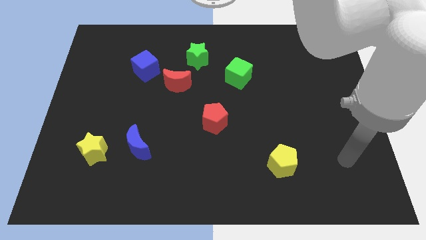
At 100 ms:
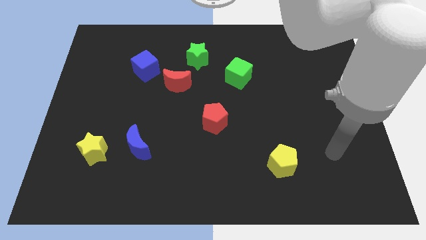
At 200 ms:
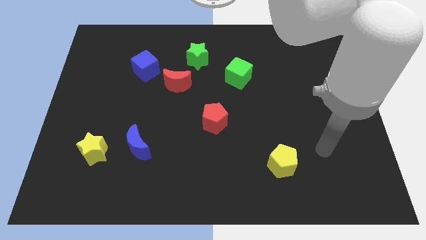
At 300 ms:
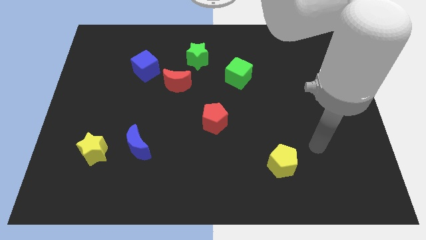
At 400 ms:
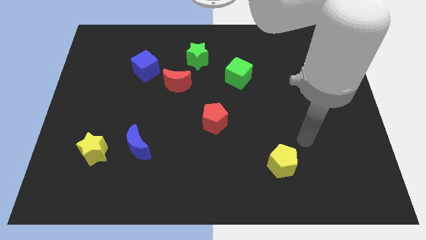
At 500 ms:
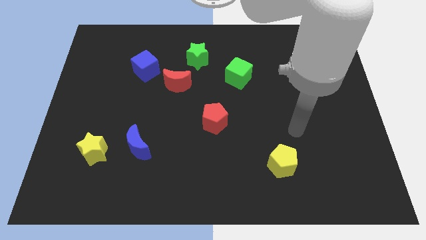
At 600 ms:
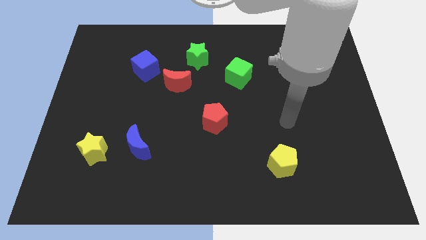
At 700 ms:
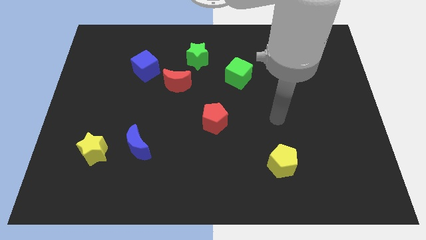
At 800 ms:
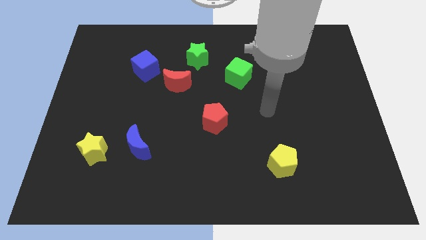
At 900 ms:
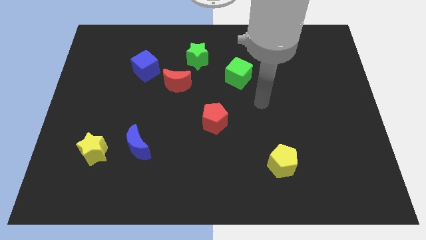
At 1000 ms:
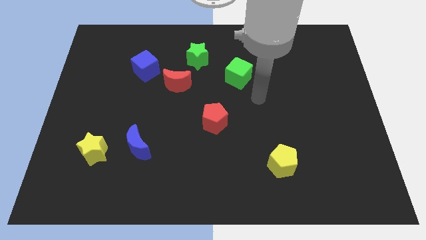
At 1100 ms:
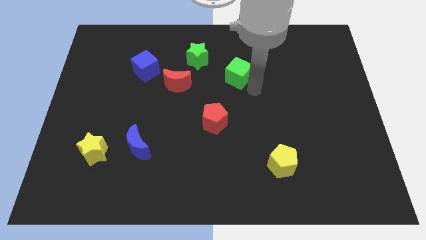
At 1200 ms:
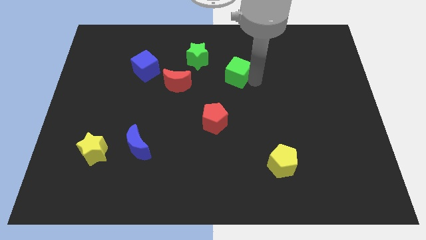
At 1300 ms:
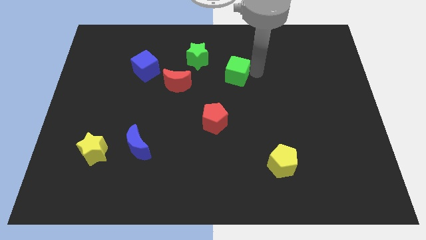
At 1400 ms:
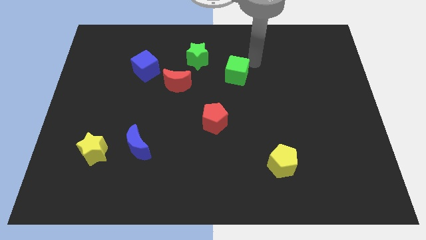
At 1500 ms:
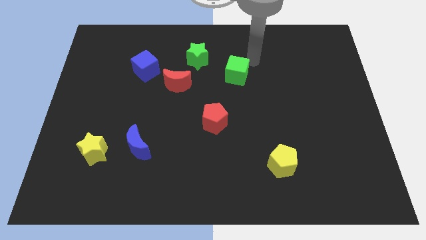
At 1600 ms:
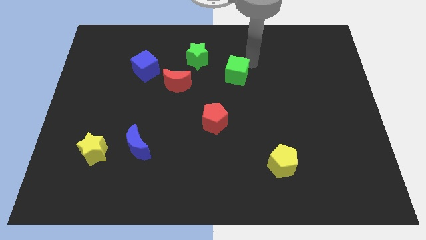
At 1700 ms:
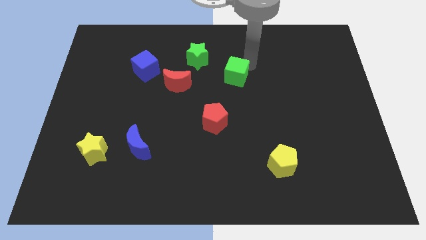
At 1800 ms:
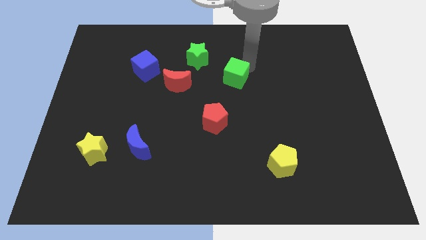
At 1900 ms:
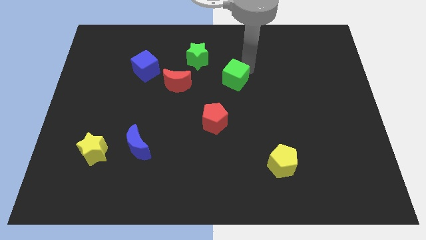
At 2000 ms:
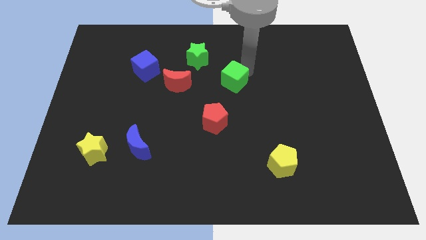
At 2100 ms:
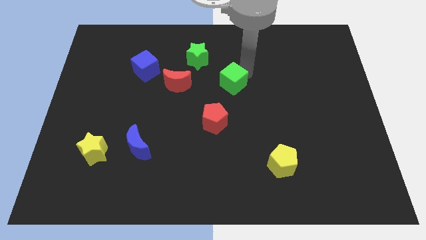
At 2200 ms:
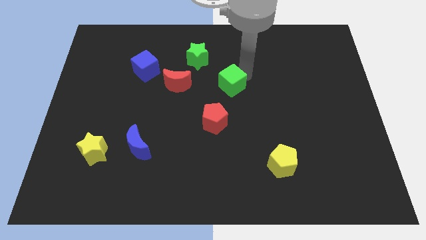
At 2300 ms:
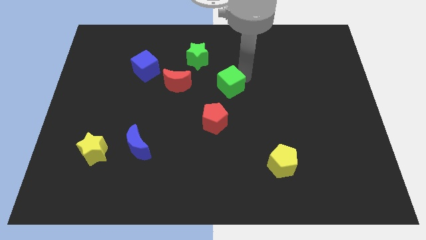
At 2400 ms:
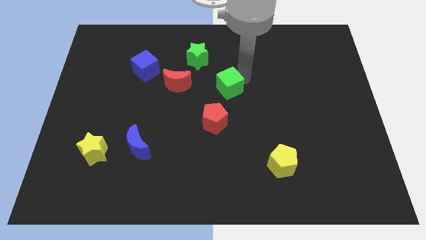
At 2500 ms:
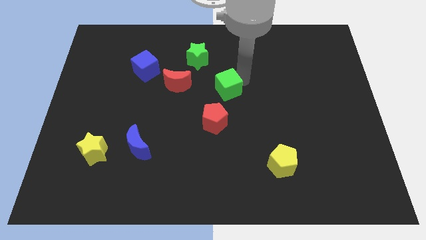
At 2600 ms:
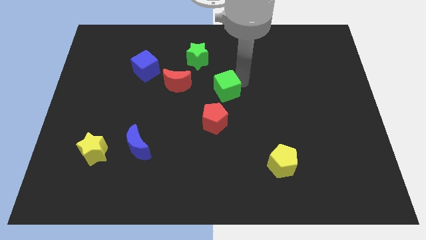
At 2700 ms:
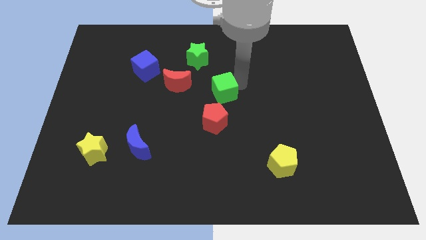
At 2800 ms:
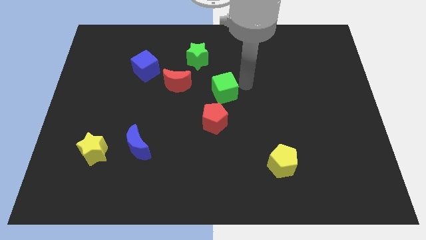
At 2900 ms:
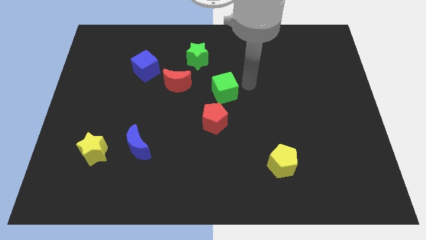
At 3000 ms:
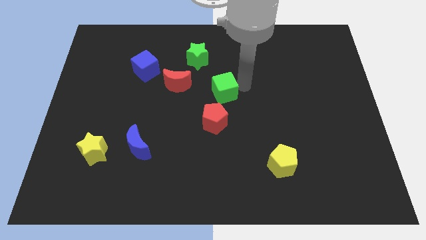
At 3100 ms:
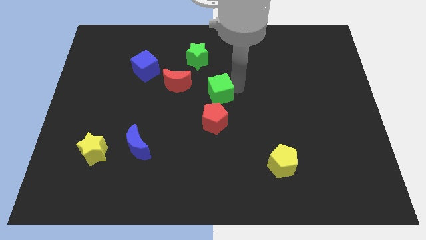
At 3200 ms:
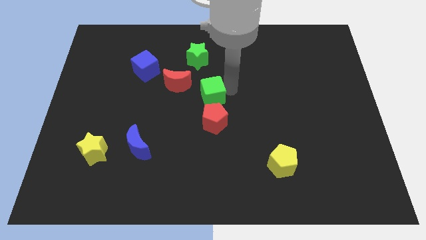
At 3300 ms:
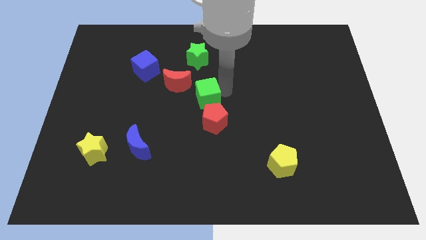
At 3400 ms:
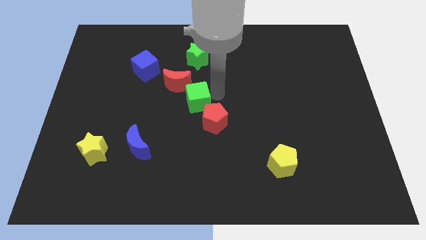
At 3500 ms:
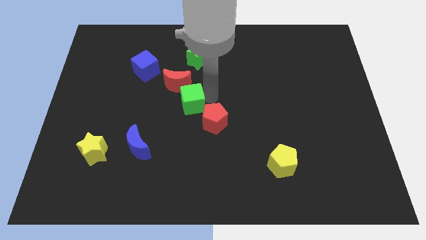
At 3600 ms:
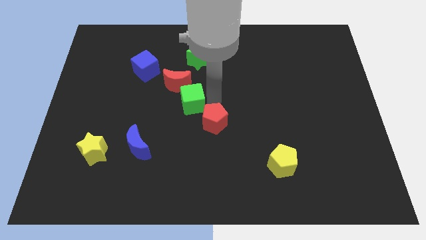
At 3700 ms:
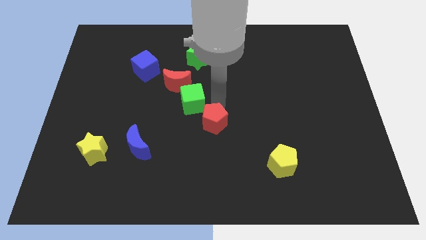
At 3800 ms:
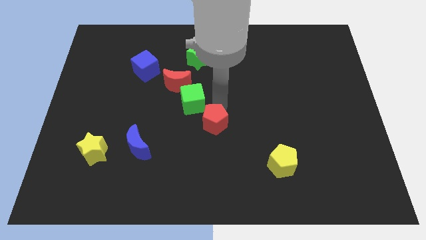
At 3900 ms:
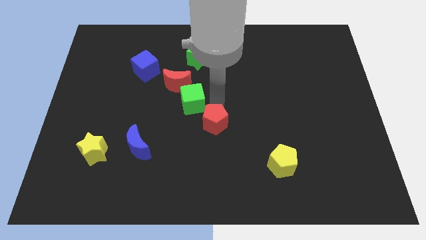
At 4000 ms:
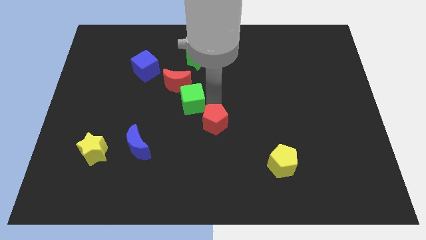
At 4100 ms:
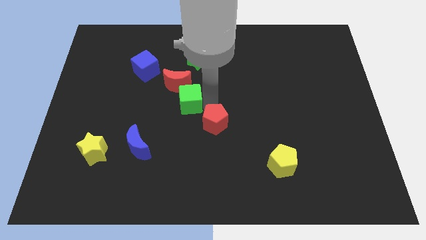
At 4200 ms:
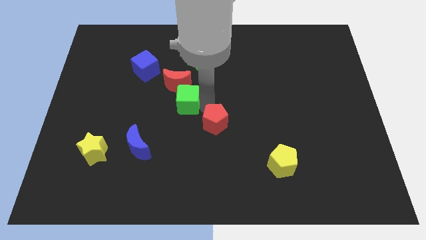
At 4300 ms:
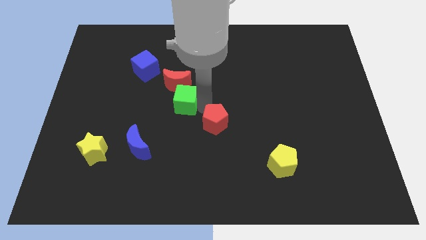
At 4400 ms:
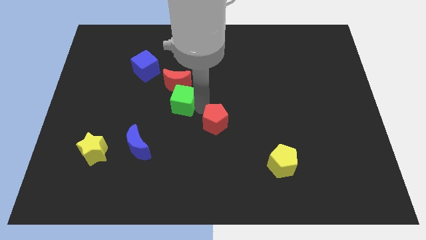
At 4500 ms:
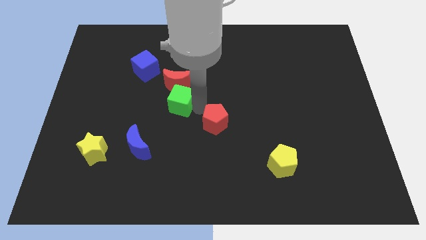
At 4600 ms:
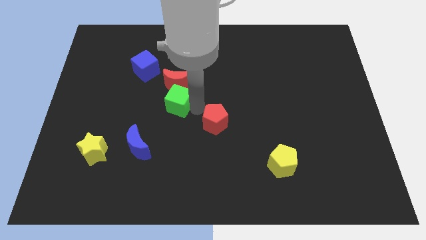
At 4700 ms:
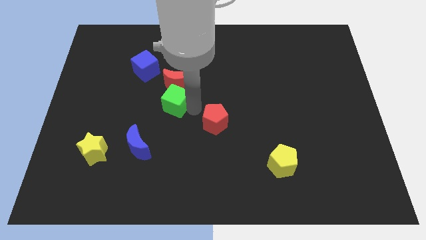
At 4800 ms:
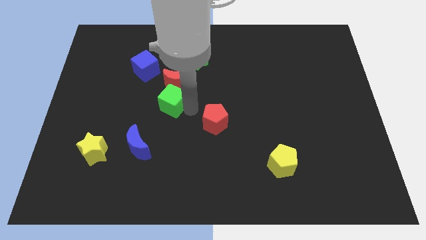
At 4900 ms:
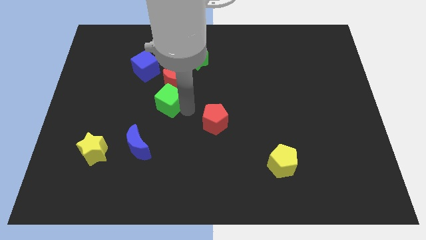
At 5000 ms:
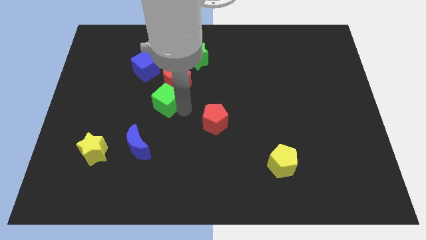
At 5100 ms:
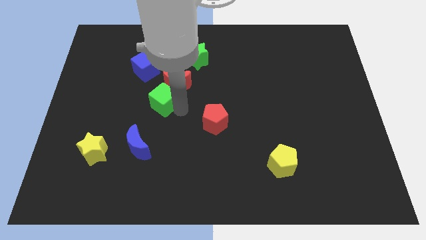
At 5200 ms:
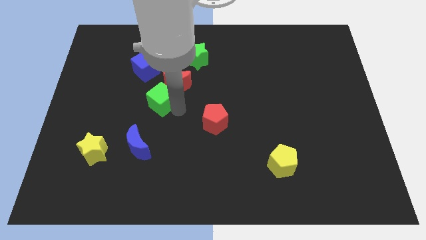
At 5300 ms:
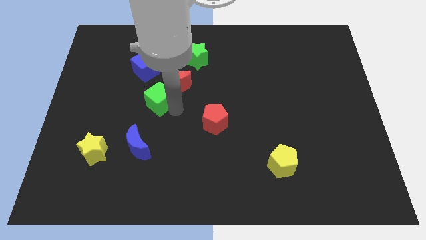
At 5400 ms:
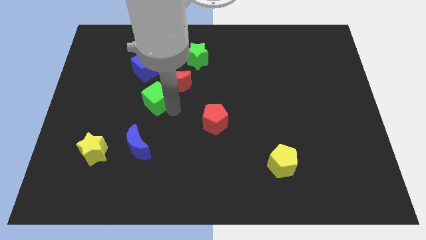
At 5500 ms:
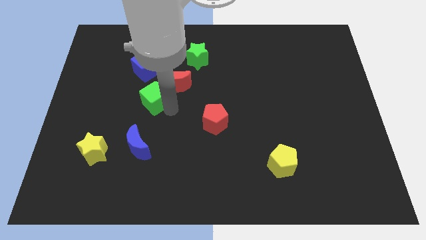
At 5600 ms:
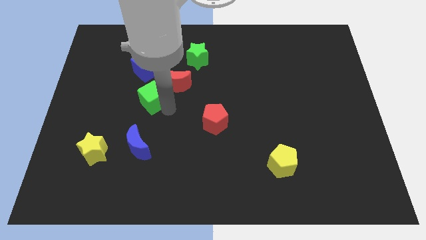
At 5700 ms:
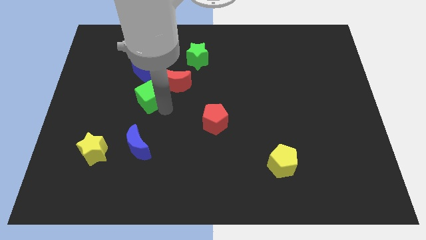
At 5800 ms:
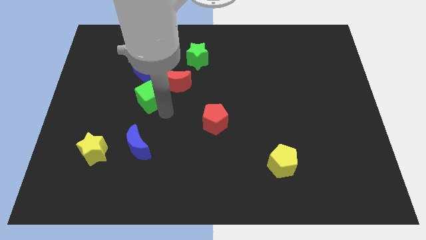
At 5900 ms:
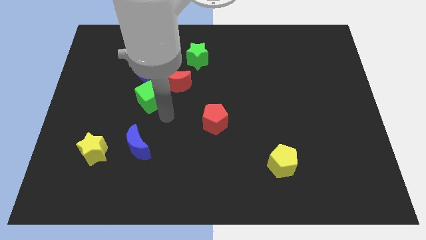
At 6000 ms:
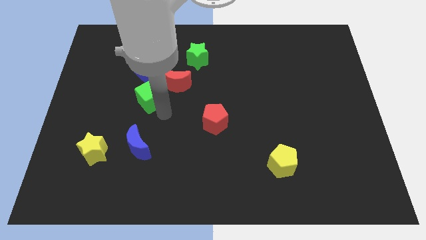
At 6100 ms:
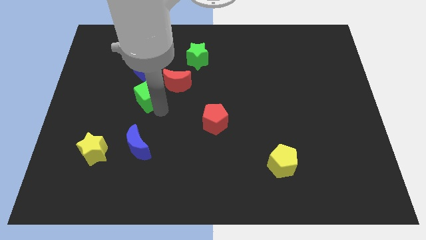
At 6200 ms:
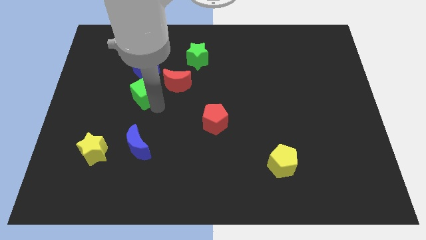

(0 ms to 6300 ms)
push the green cube to the left

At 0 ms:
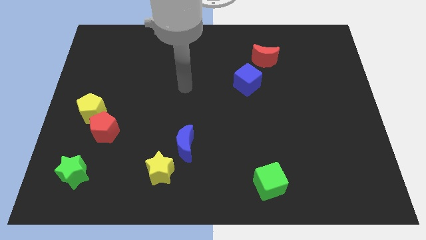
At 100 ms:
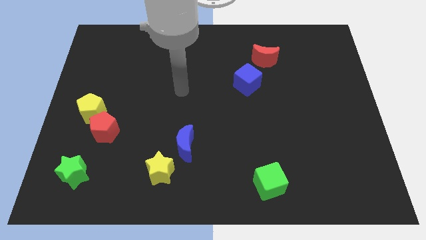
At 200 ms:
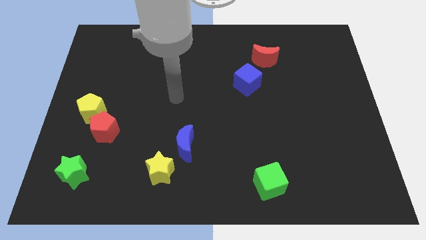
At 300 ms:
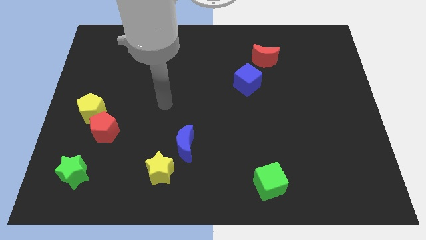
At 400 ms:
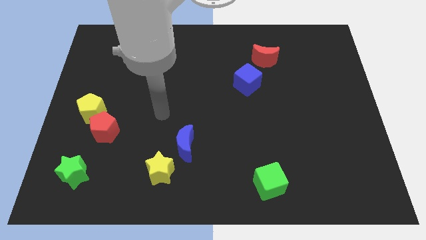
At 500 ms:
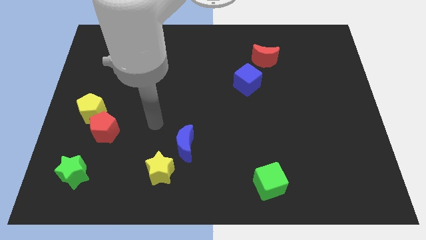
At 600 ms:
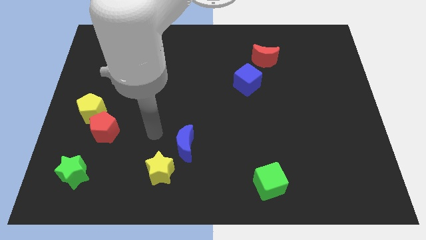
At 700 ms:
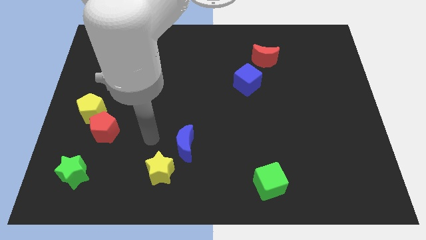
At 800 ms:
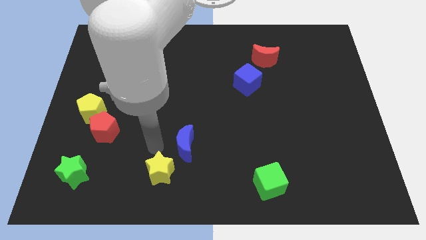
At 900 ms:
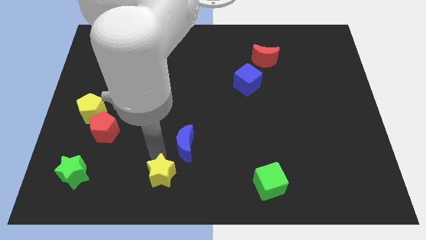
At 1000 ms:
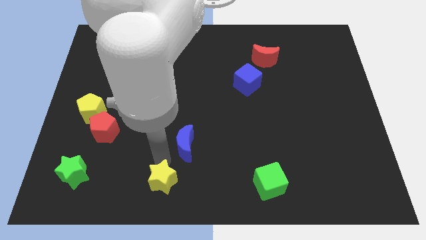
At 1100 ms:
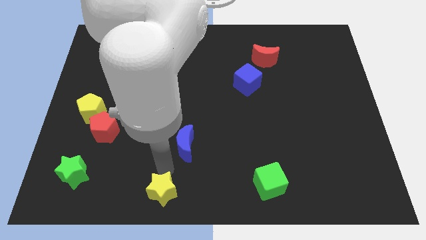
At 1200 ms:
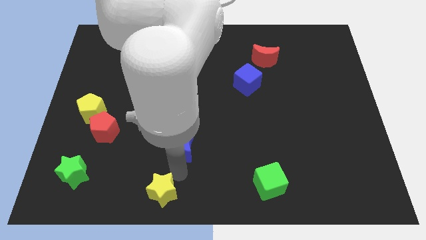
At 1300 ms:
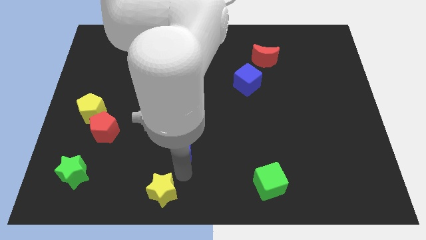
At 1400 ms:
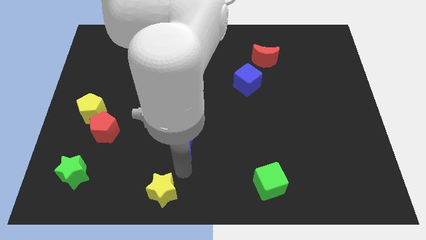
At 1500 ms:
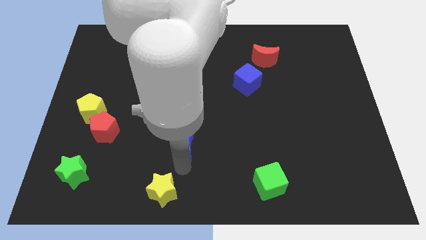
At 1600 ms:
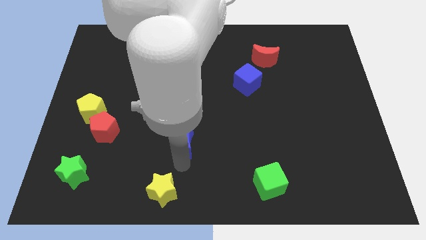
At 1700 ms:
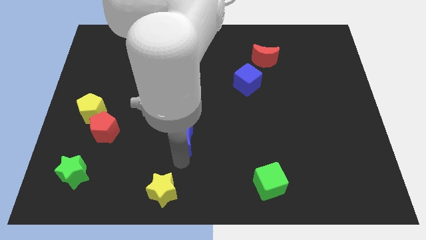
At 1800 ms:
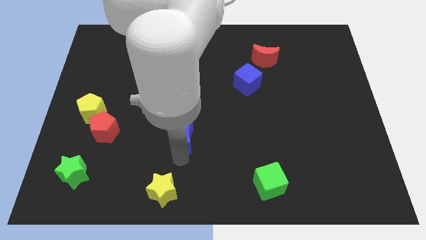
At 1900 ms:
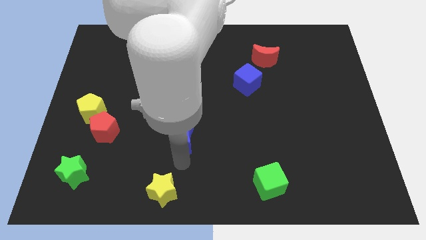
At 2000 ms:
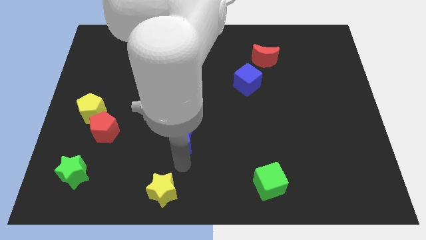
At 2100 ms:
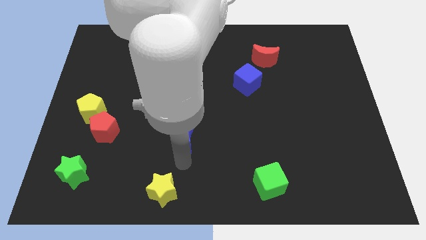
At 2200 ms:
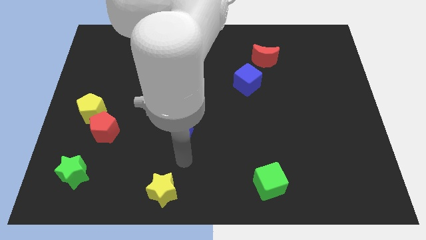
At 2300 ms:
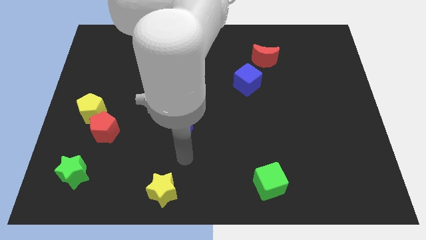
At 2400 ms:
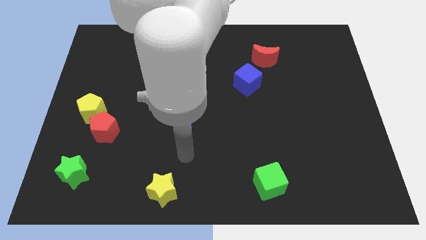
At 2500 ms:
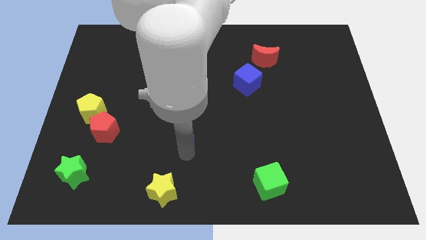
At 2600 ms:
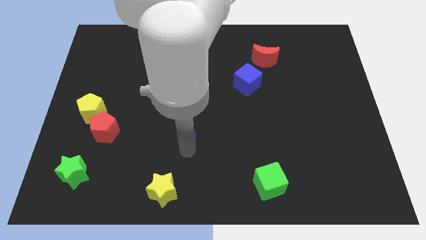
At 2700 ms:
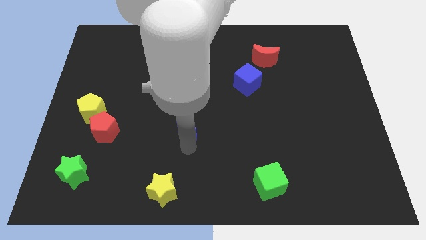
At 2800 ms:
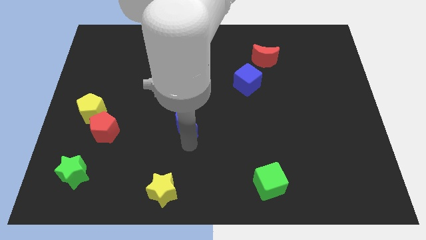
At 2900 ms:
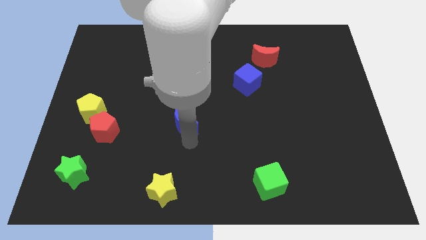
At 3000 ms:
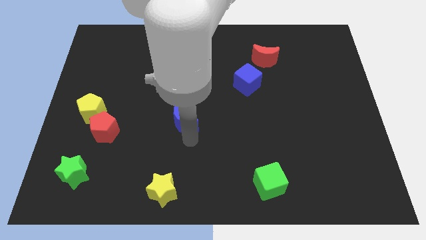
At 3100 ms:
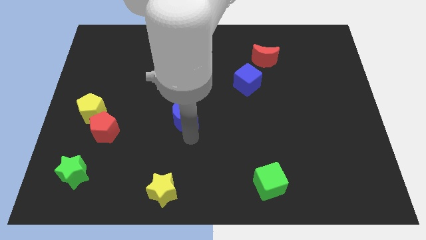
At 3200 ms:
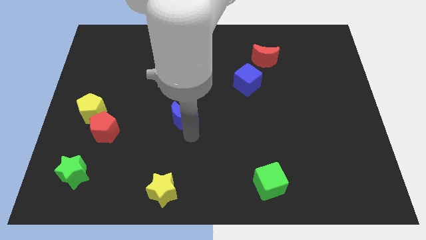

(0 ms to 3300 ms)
slightly slide the blue moon up
